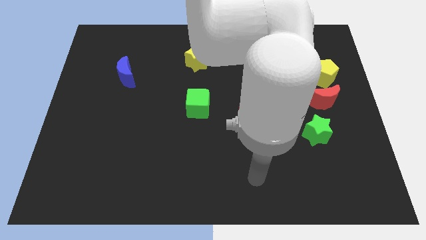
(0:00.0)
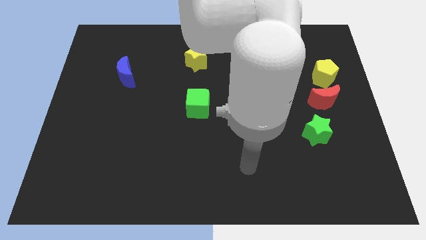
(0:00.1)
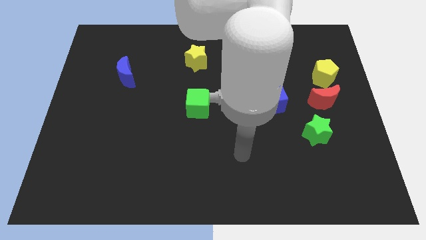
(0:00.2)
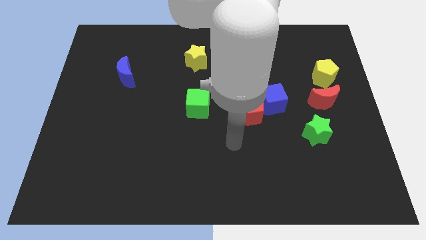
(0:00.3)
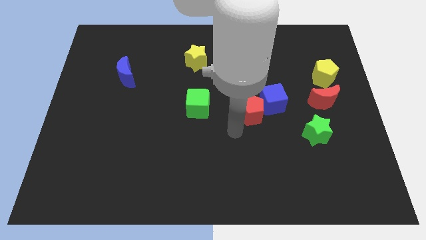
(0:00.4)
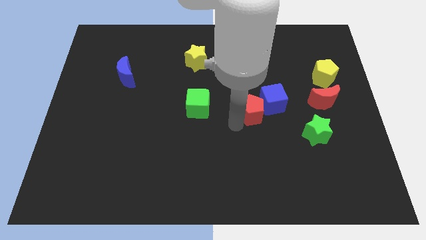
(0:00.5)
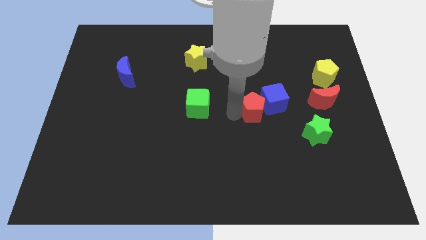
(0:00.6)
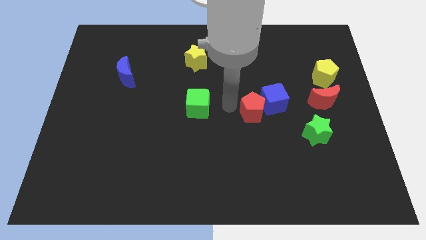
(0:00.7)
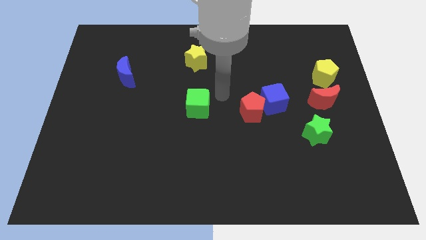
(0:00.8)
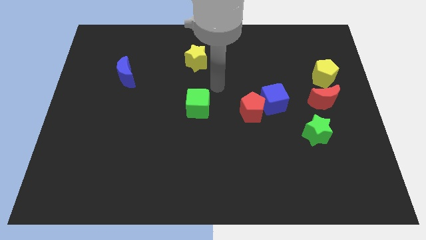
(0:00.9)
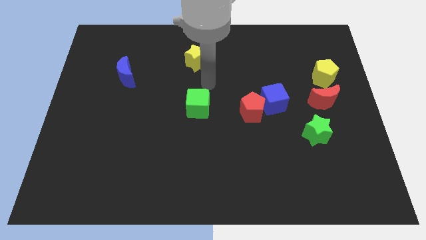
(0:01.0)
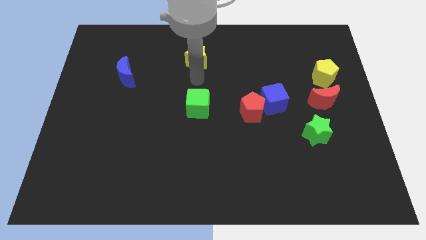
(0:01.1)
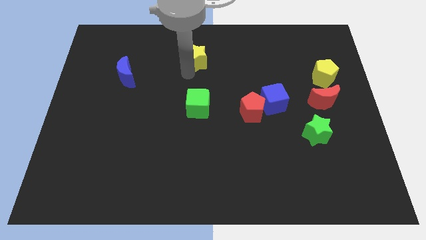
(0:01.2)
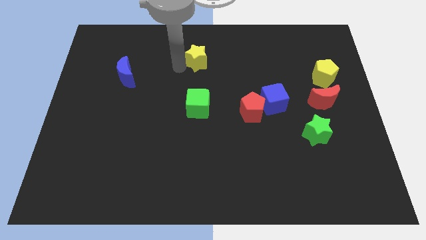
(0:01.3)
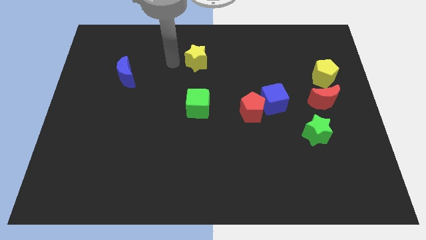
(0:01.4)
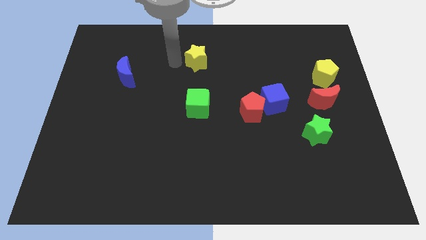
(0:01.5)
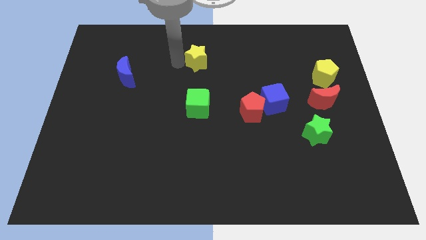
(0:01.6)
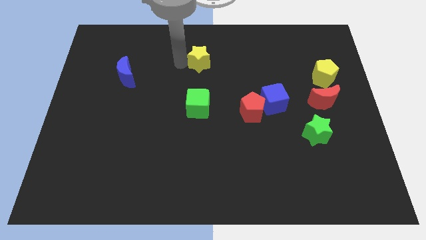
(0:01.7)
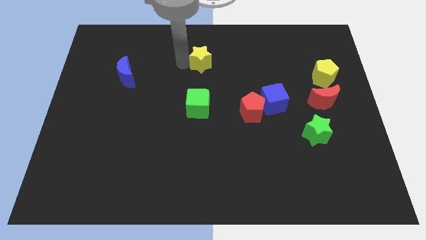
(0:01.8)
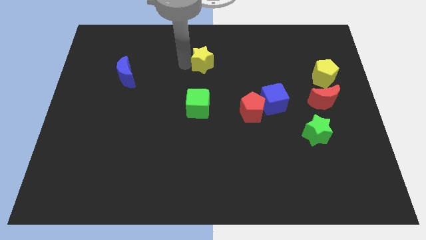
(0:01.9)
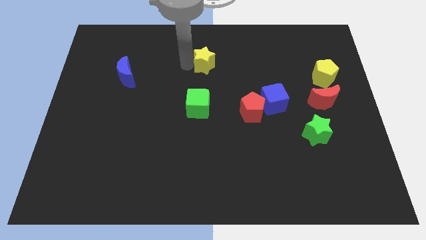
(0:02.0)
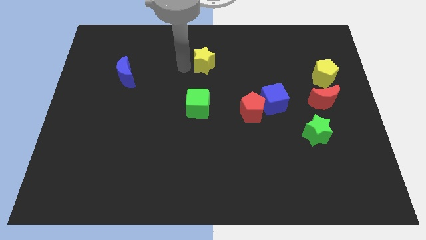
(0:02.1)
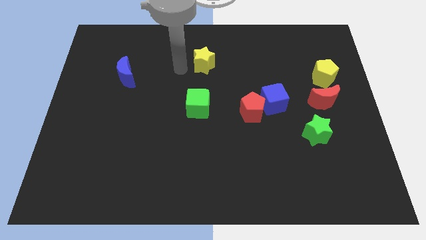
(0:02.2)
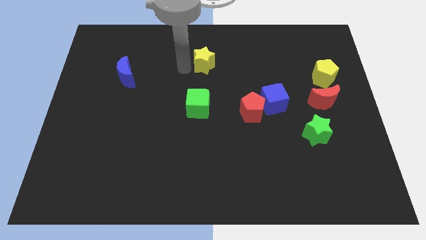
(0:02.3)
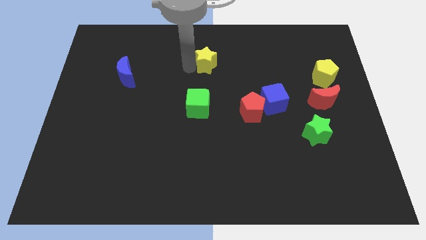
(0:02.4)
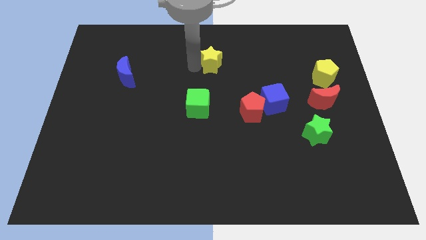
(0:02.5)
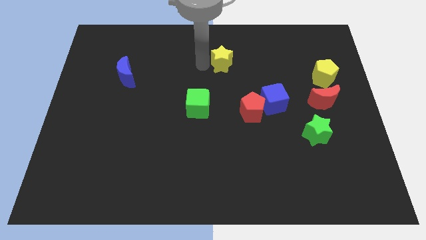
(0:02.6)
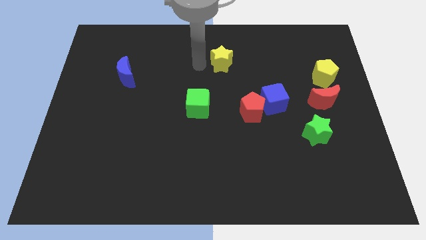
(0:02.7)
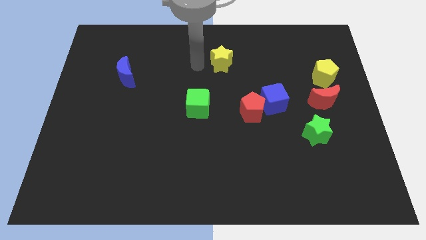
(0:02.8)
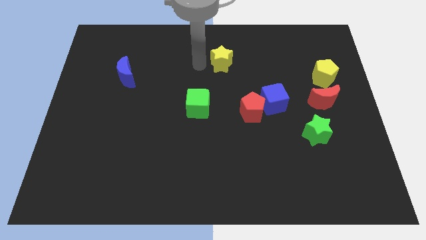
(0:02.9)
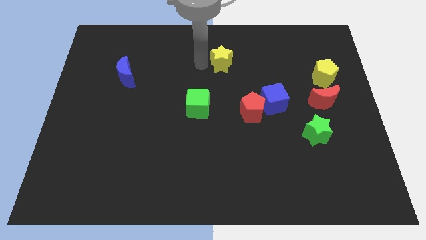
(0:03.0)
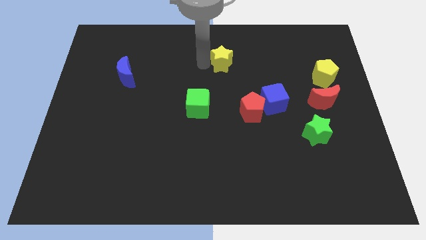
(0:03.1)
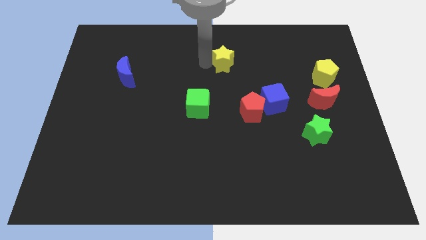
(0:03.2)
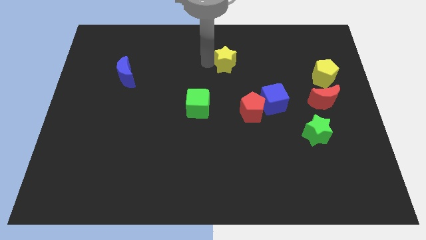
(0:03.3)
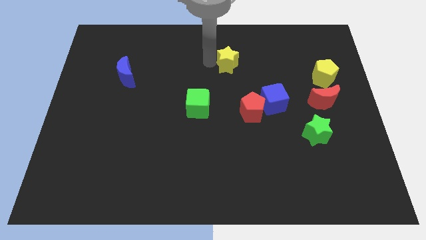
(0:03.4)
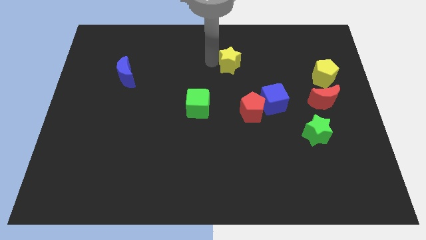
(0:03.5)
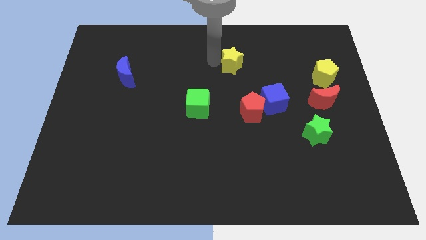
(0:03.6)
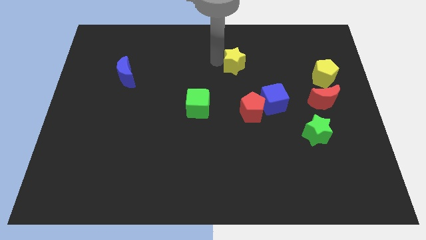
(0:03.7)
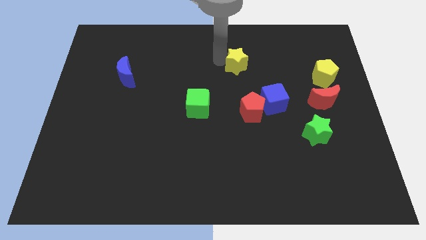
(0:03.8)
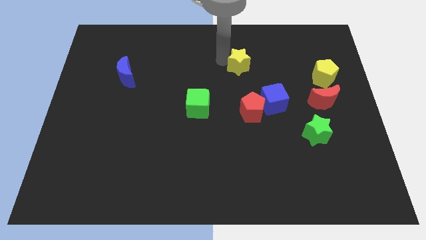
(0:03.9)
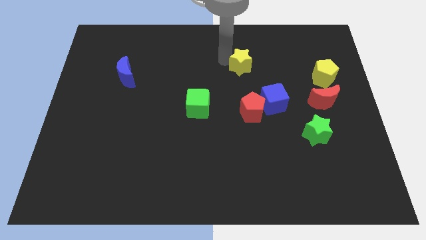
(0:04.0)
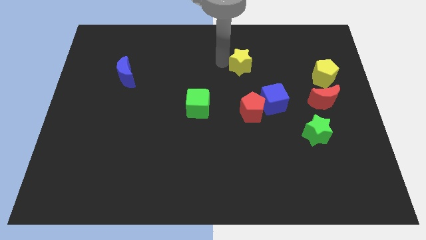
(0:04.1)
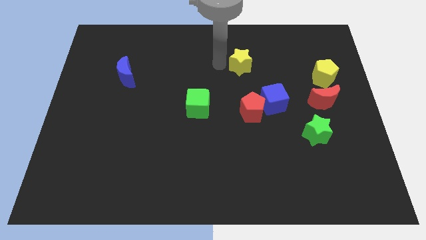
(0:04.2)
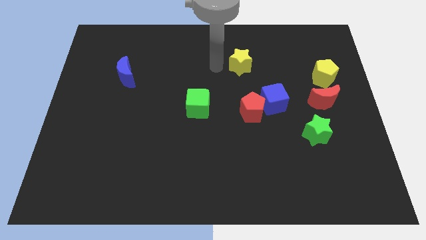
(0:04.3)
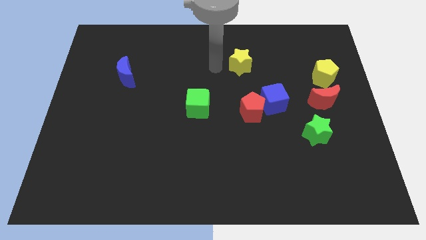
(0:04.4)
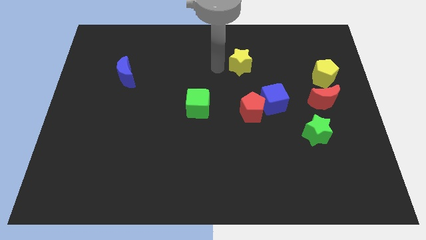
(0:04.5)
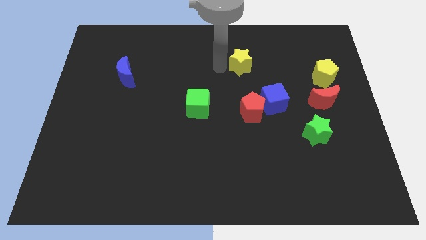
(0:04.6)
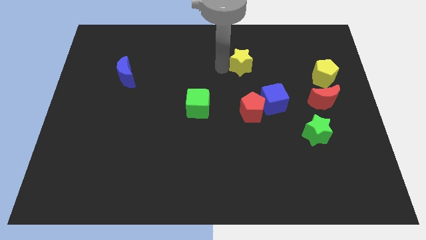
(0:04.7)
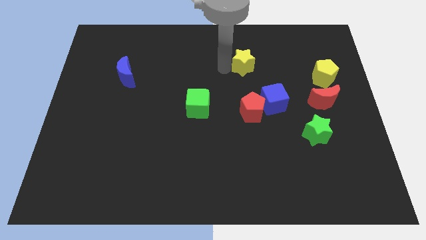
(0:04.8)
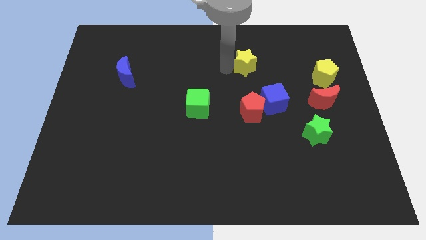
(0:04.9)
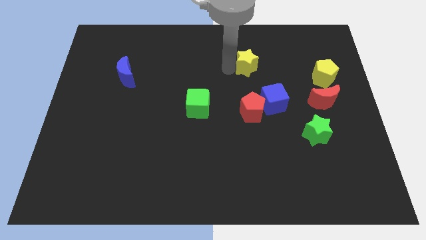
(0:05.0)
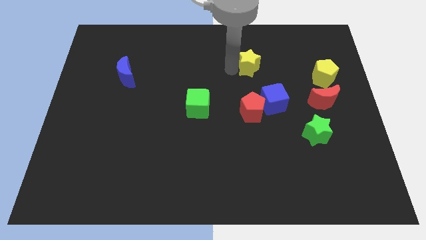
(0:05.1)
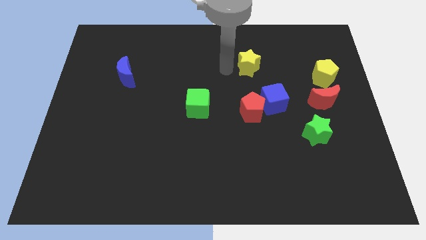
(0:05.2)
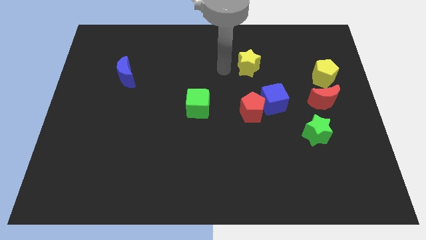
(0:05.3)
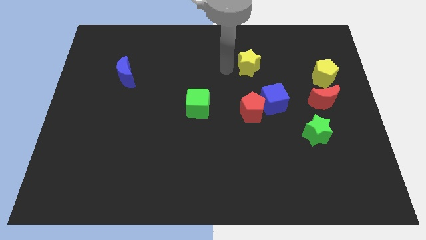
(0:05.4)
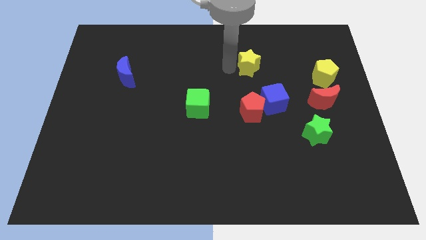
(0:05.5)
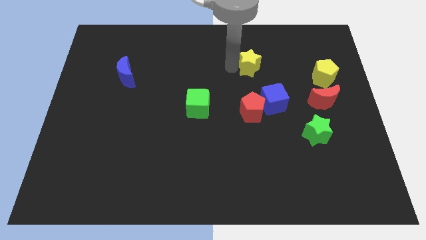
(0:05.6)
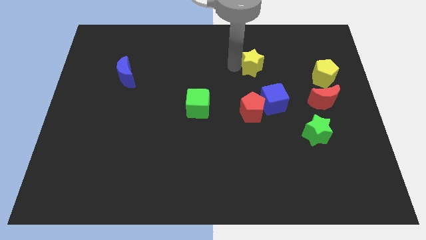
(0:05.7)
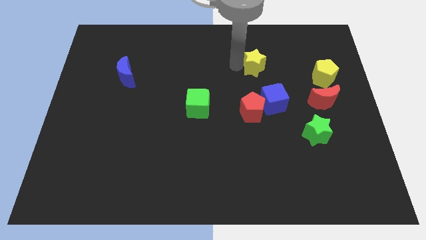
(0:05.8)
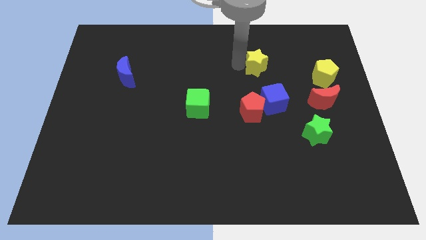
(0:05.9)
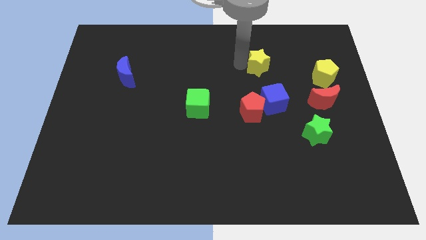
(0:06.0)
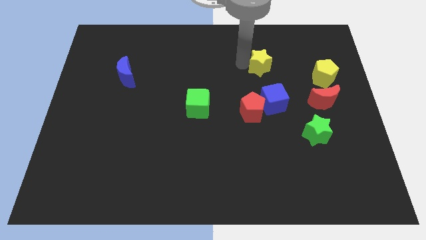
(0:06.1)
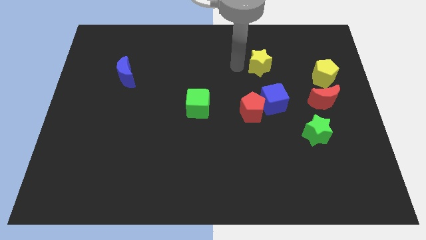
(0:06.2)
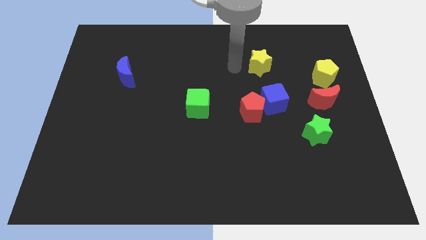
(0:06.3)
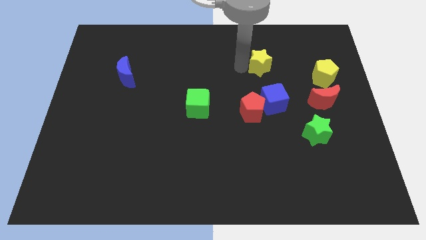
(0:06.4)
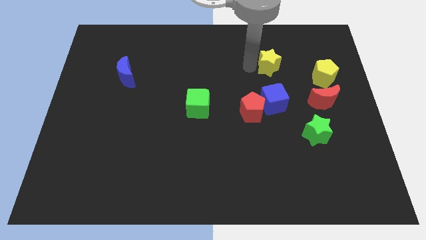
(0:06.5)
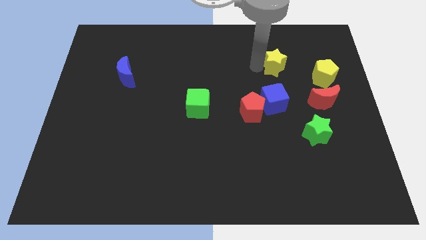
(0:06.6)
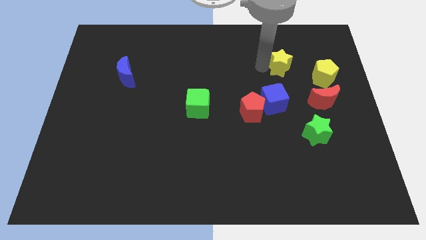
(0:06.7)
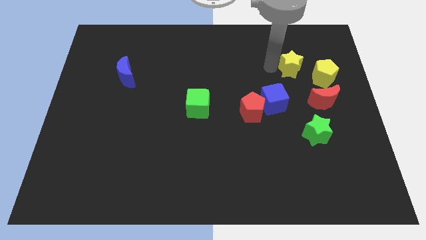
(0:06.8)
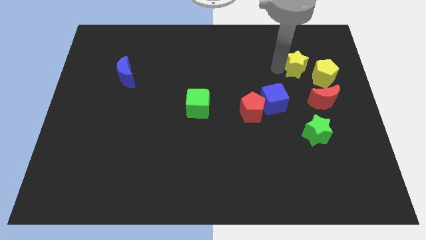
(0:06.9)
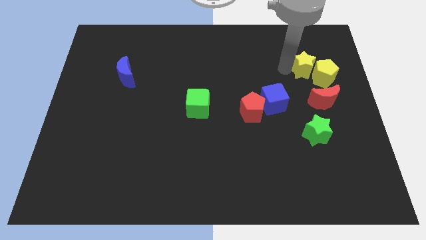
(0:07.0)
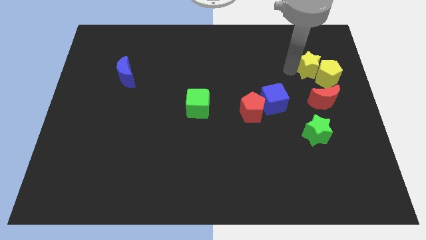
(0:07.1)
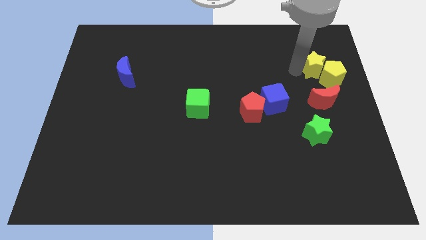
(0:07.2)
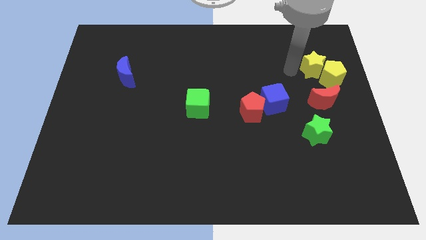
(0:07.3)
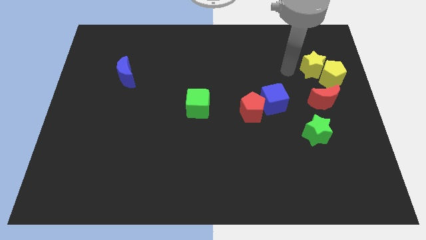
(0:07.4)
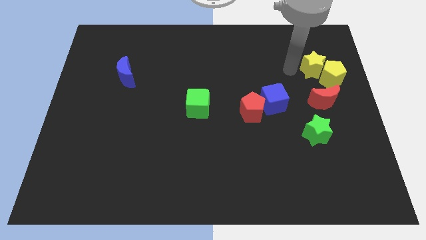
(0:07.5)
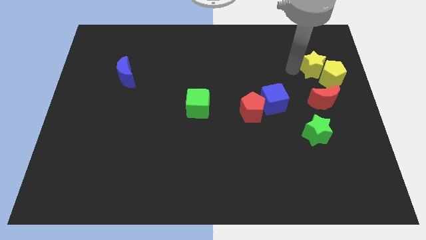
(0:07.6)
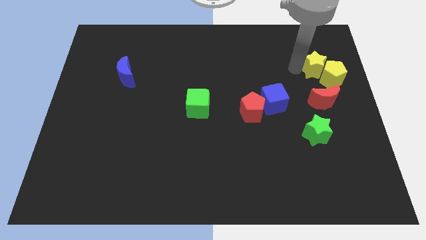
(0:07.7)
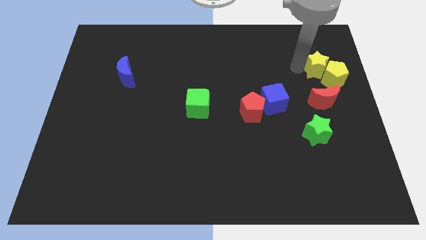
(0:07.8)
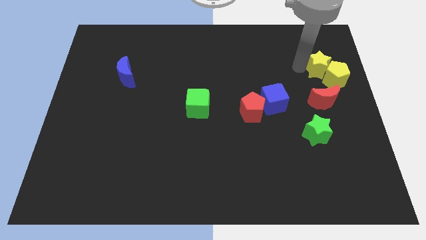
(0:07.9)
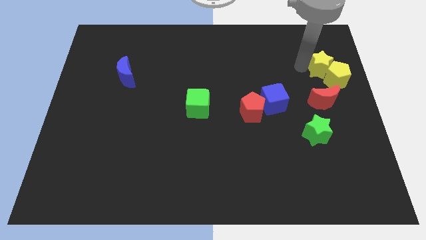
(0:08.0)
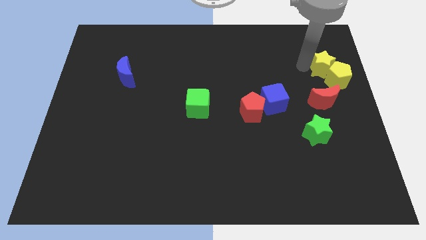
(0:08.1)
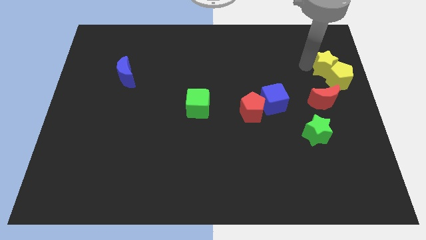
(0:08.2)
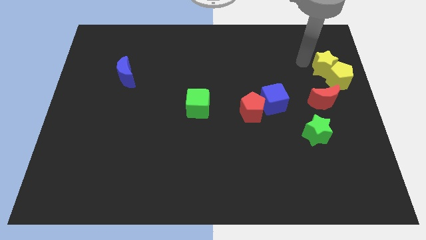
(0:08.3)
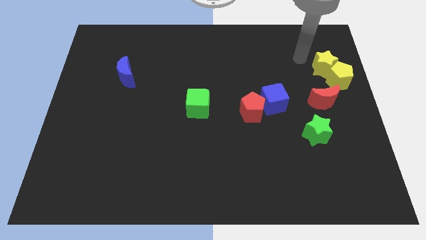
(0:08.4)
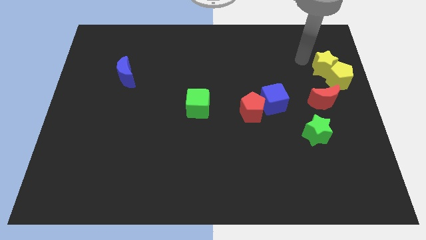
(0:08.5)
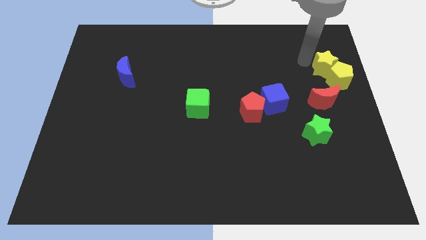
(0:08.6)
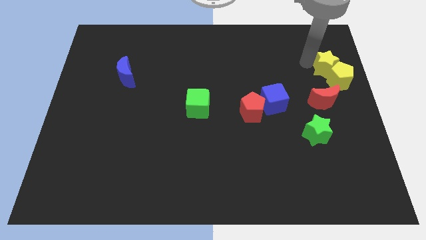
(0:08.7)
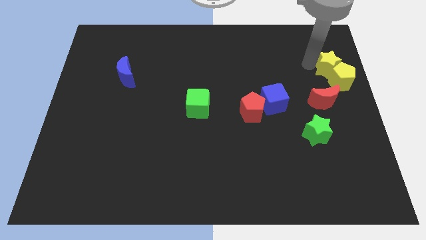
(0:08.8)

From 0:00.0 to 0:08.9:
push the yellow star to the center right
